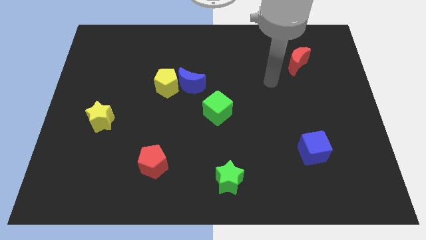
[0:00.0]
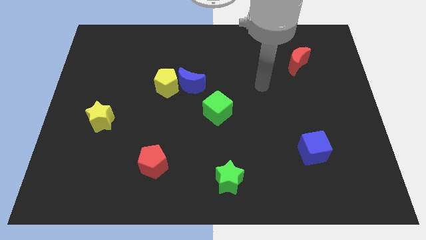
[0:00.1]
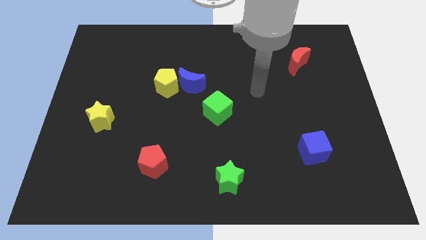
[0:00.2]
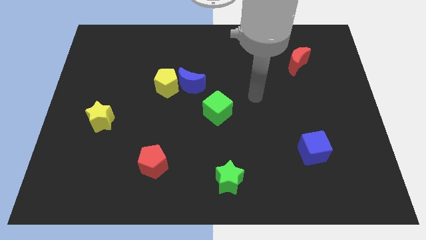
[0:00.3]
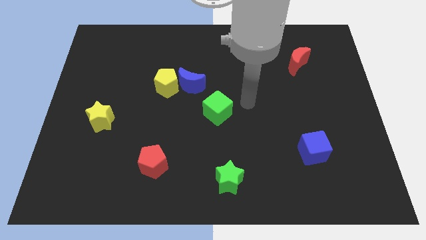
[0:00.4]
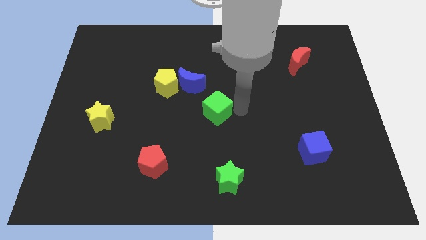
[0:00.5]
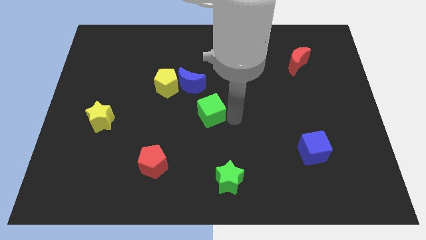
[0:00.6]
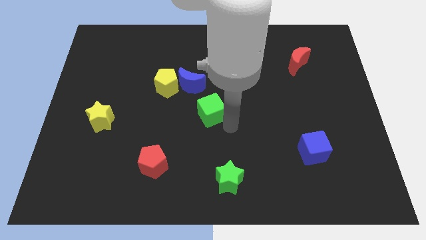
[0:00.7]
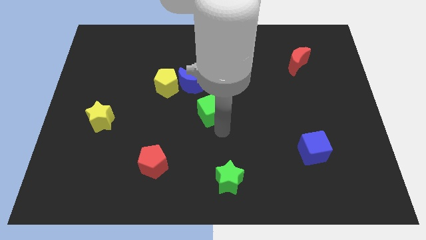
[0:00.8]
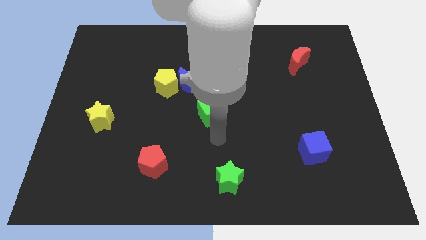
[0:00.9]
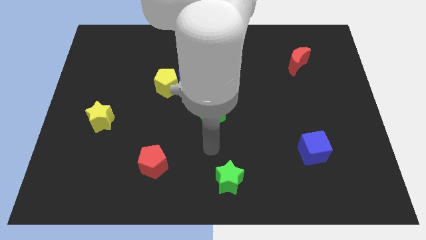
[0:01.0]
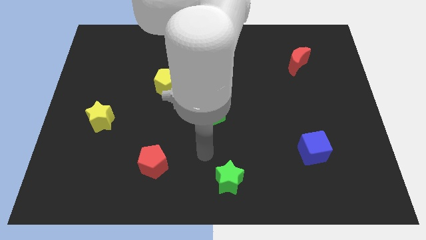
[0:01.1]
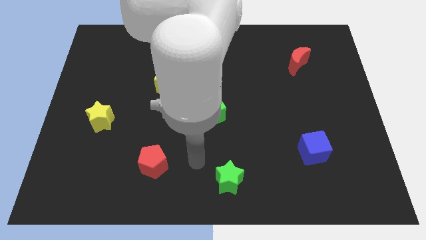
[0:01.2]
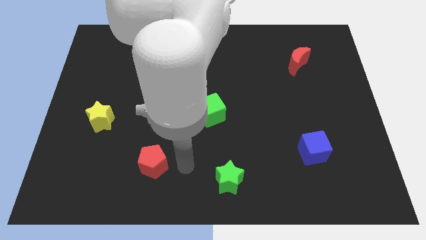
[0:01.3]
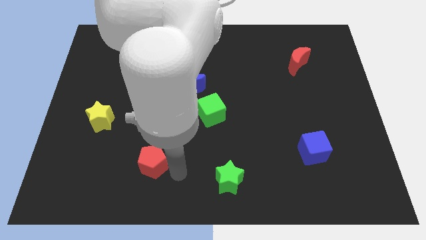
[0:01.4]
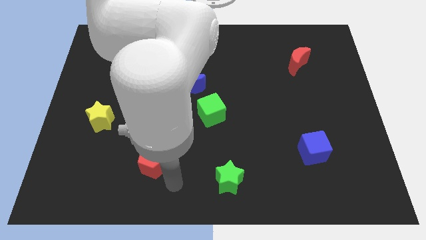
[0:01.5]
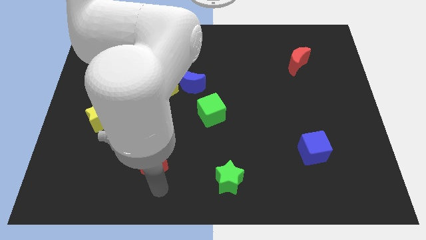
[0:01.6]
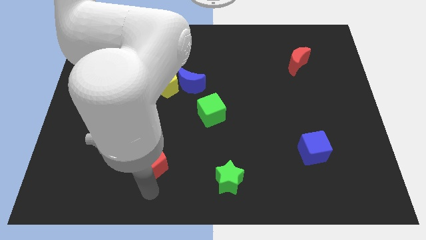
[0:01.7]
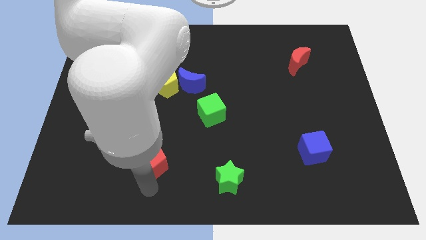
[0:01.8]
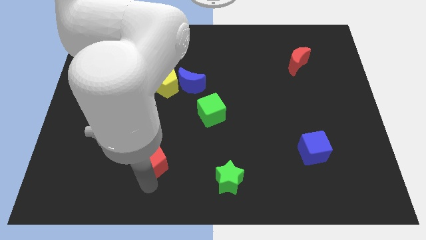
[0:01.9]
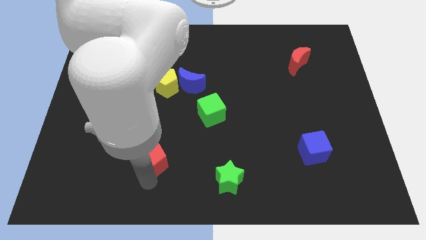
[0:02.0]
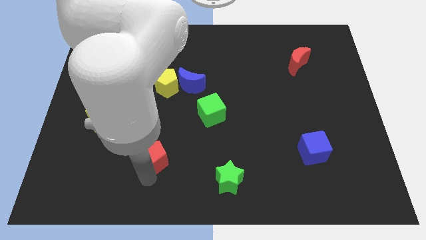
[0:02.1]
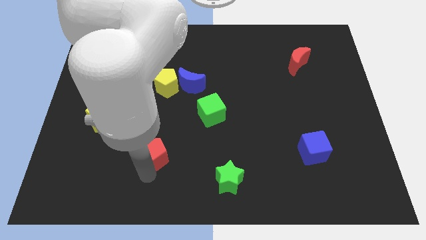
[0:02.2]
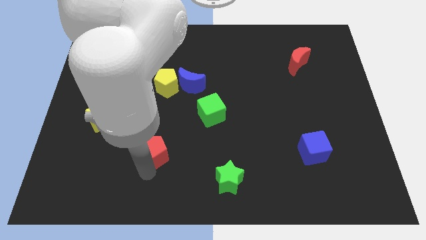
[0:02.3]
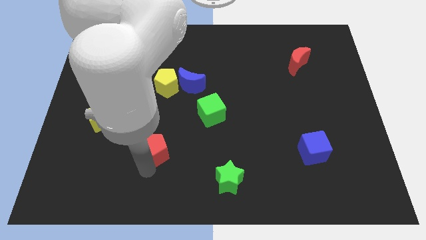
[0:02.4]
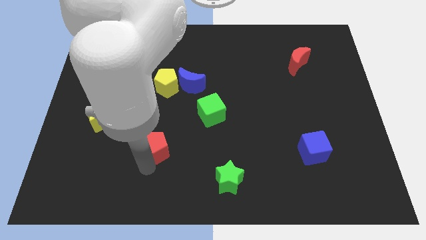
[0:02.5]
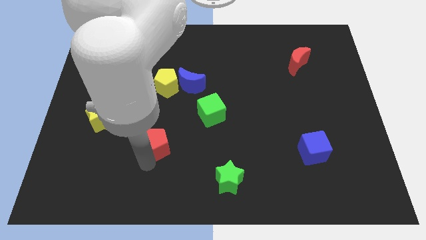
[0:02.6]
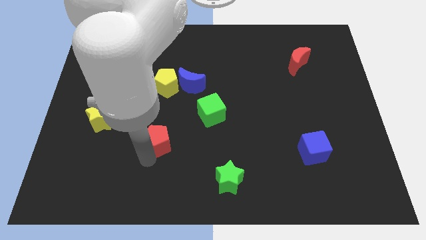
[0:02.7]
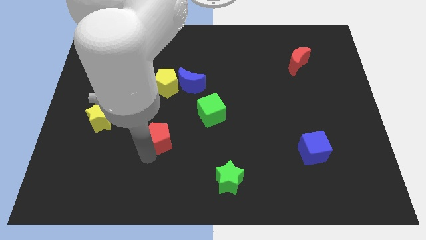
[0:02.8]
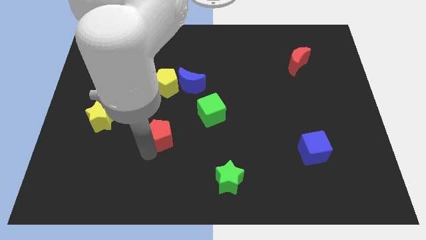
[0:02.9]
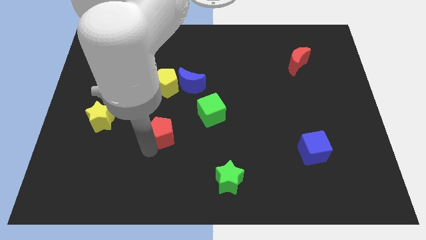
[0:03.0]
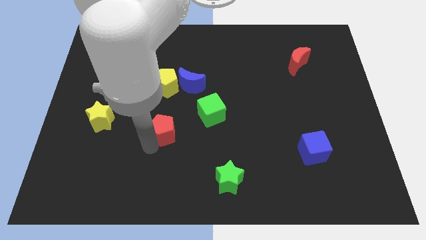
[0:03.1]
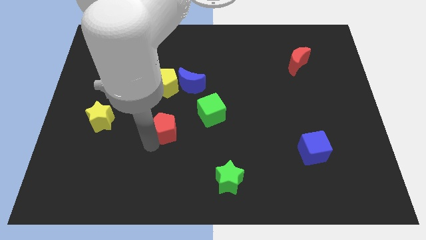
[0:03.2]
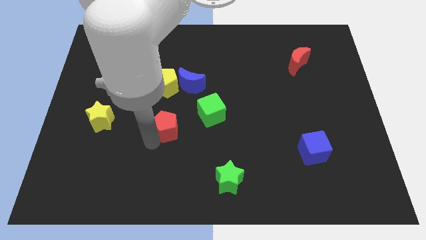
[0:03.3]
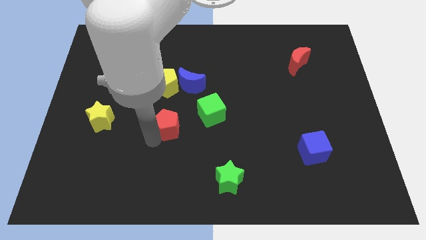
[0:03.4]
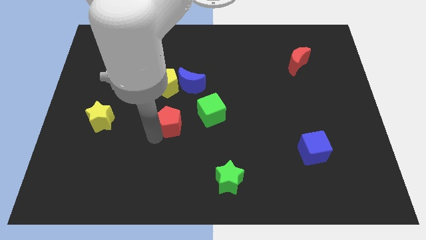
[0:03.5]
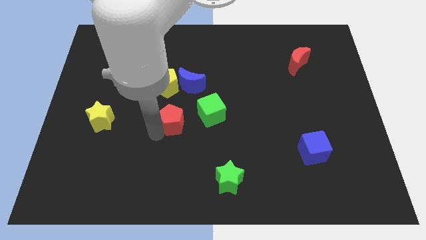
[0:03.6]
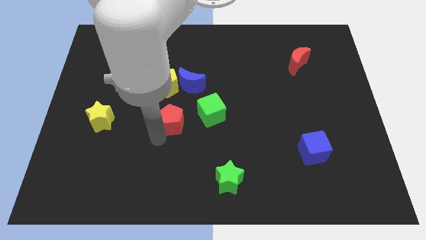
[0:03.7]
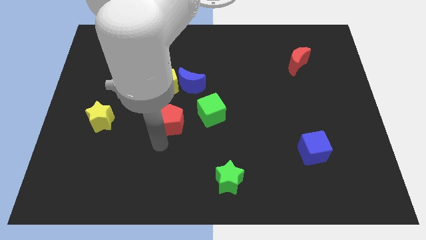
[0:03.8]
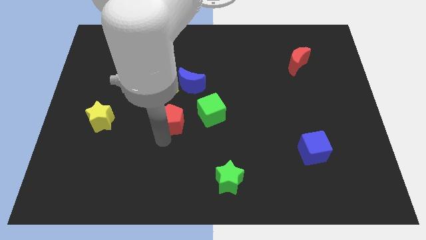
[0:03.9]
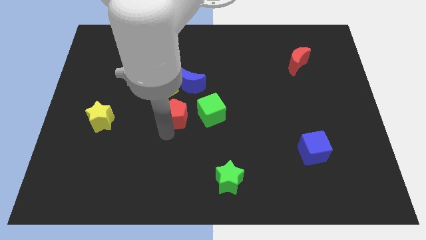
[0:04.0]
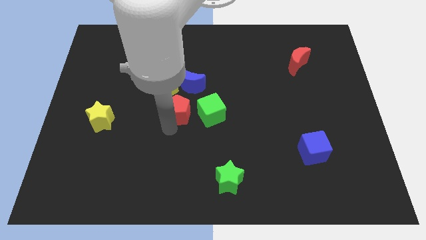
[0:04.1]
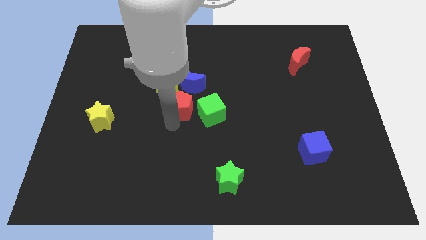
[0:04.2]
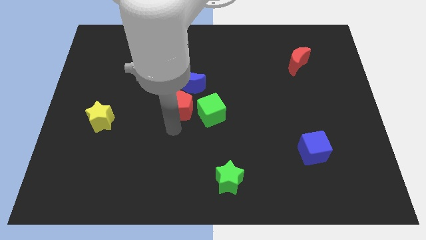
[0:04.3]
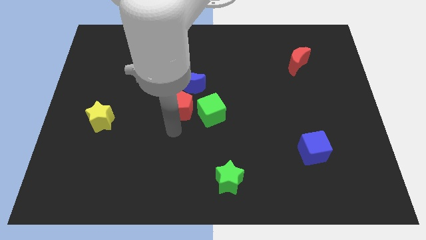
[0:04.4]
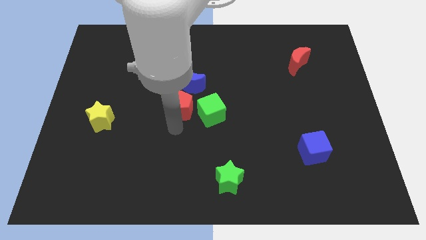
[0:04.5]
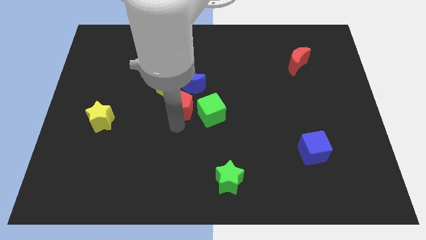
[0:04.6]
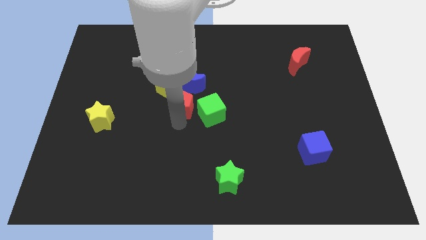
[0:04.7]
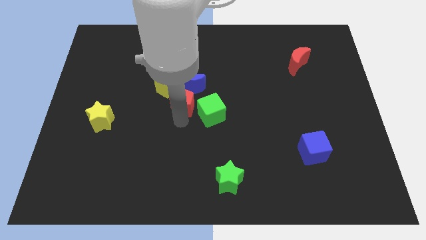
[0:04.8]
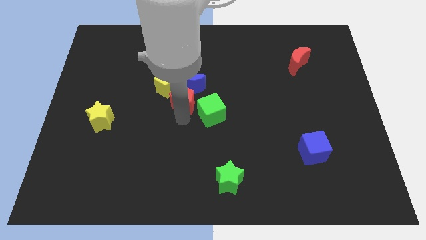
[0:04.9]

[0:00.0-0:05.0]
slide the red pentagon next to the blue moon

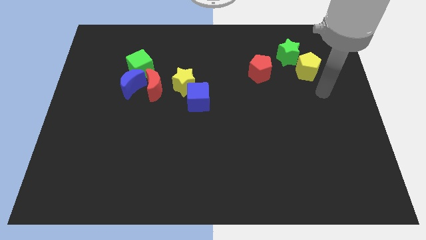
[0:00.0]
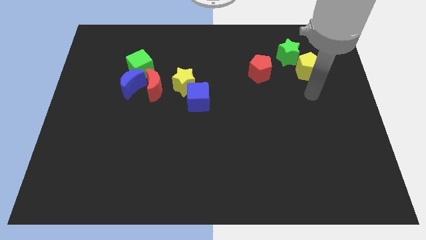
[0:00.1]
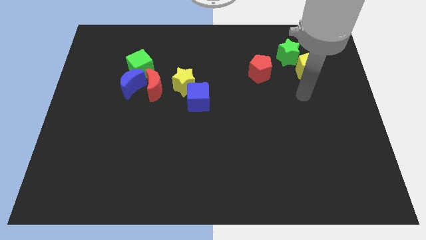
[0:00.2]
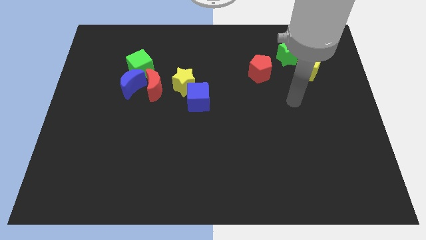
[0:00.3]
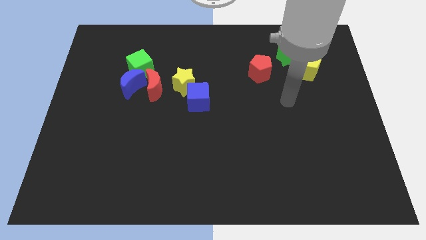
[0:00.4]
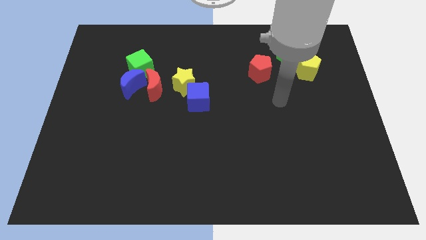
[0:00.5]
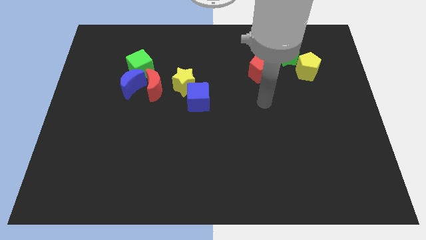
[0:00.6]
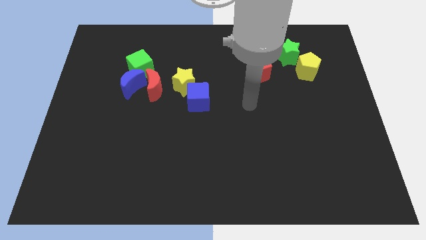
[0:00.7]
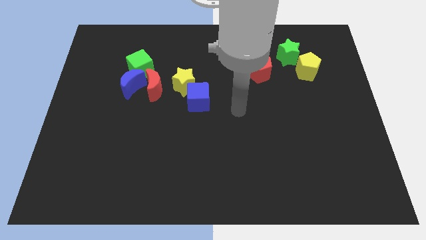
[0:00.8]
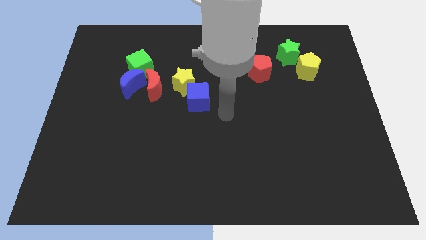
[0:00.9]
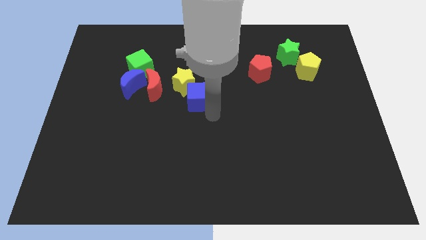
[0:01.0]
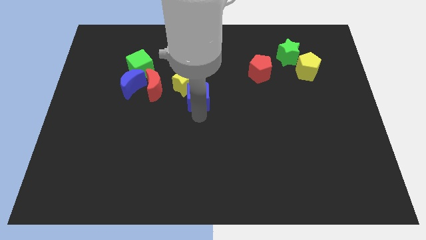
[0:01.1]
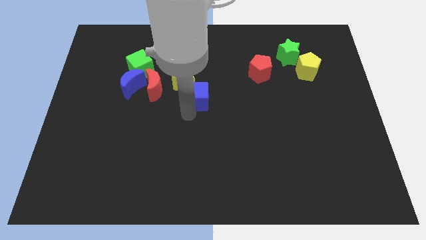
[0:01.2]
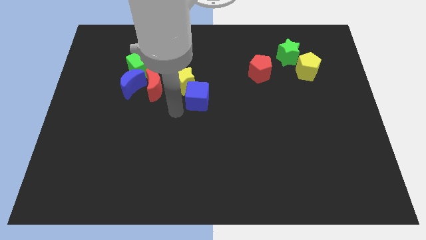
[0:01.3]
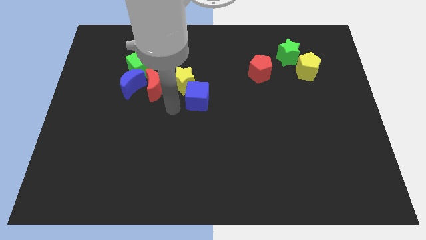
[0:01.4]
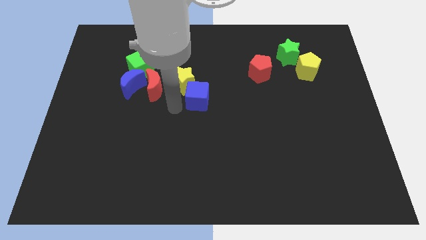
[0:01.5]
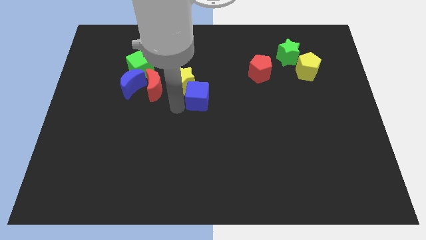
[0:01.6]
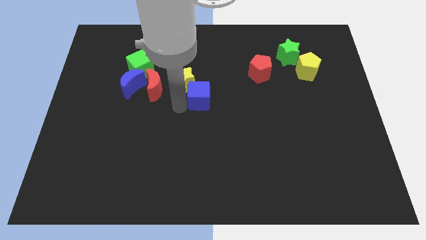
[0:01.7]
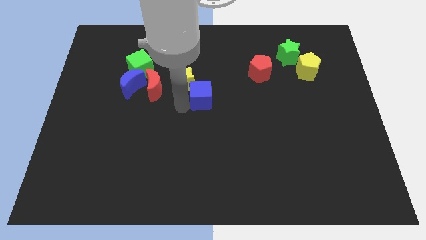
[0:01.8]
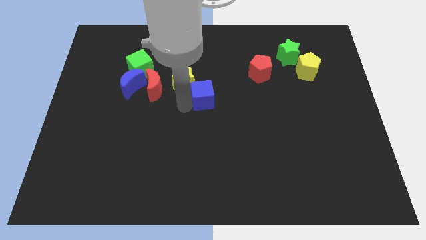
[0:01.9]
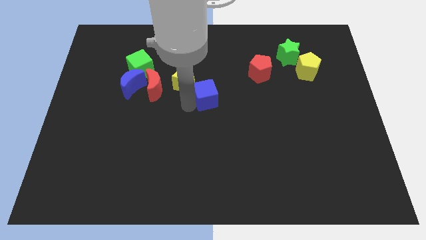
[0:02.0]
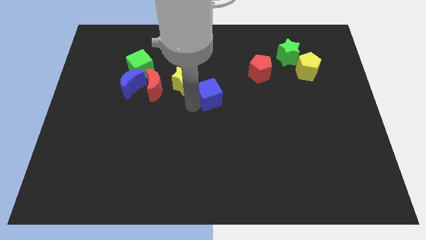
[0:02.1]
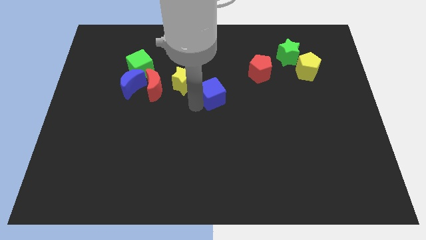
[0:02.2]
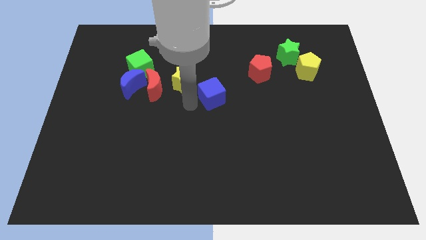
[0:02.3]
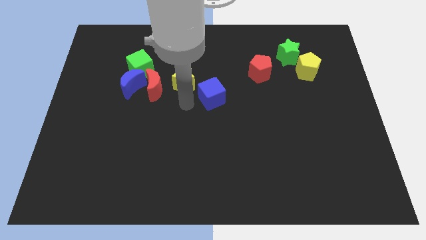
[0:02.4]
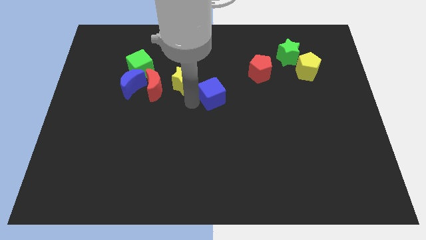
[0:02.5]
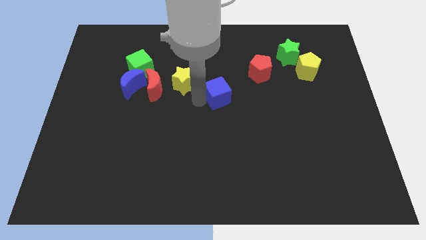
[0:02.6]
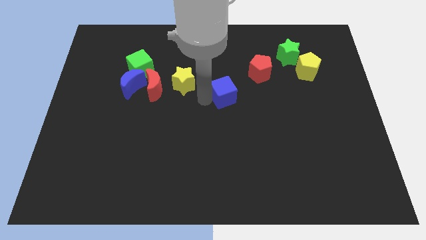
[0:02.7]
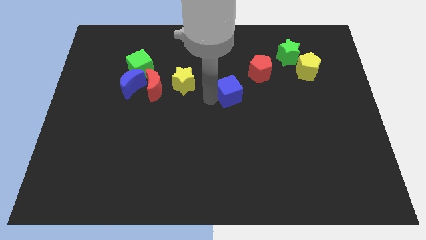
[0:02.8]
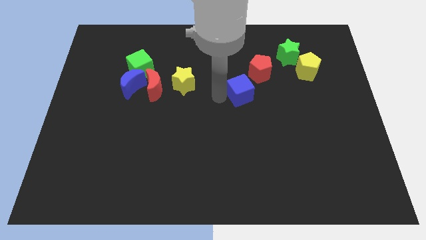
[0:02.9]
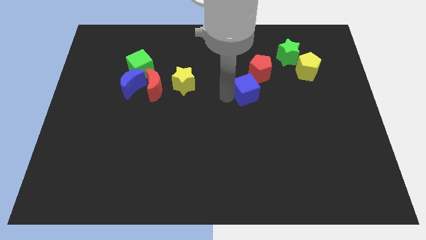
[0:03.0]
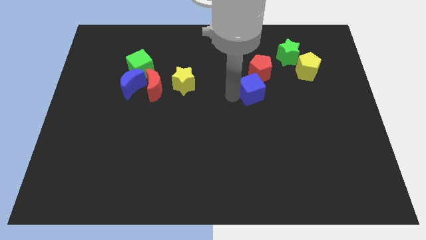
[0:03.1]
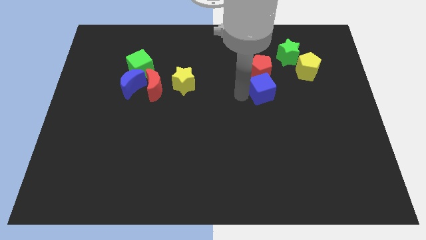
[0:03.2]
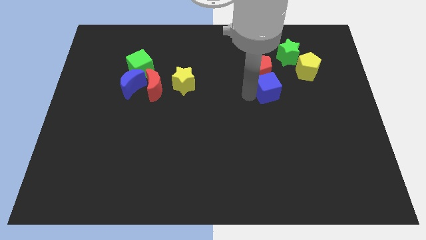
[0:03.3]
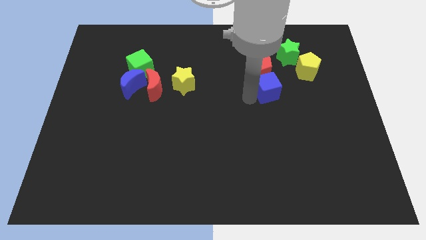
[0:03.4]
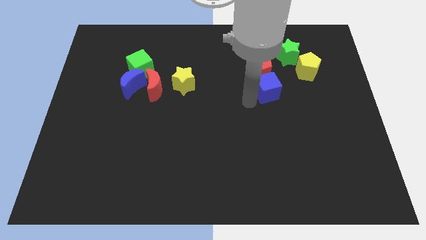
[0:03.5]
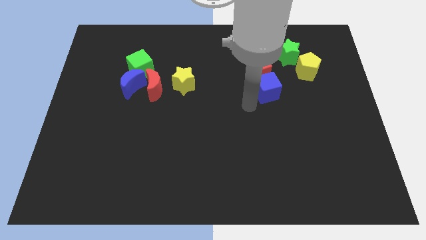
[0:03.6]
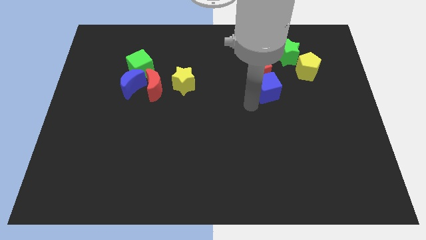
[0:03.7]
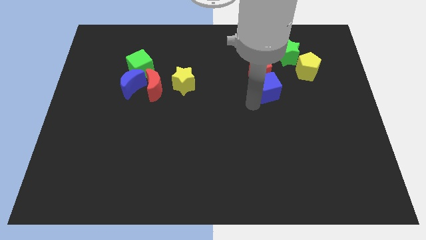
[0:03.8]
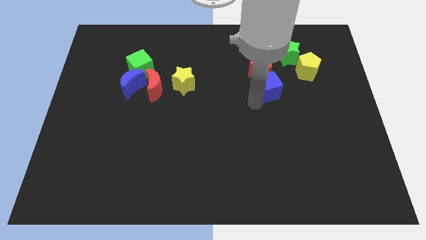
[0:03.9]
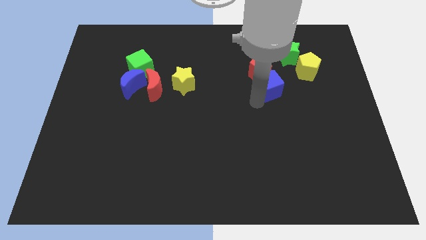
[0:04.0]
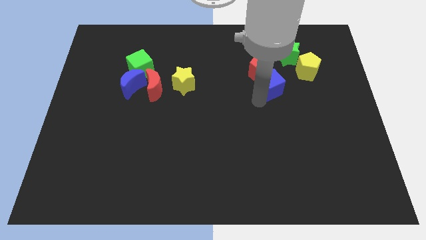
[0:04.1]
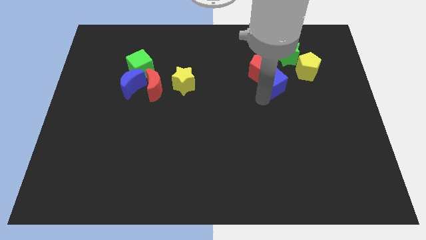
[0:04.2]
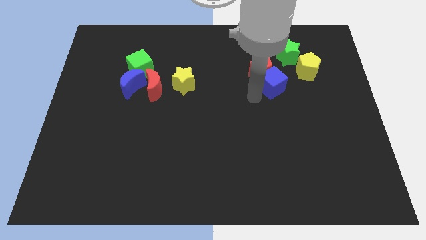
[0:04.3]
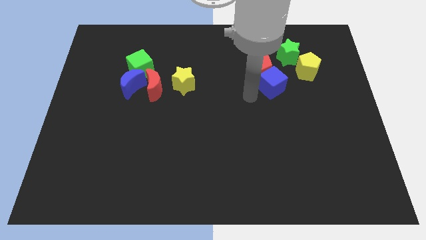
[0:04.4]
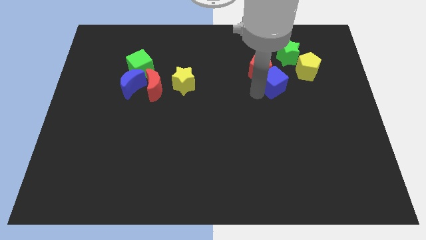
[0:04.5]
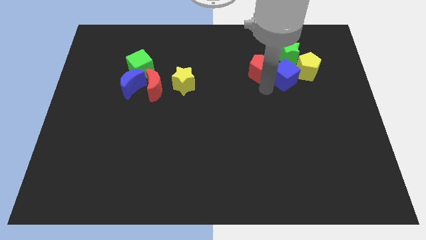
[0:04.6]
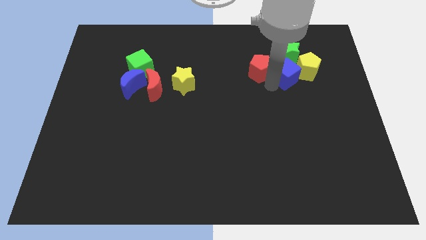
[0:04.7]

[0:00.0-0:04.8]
slide the blue cube next to the yellow pentagon
